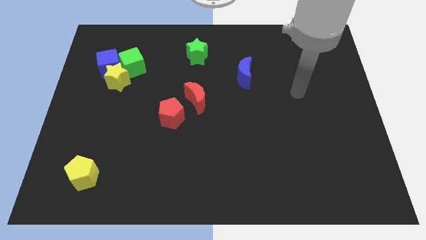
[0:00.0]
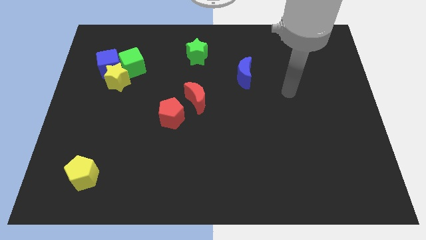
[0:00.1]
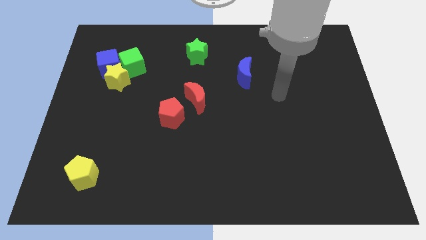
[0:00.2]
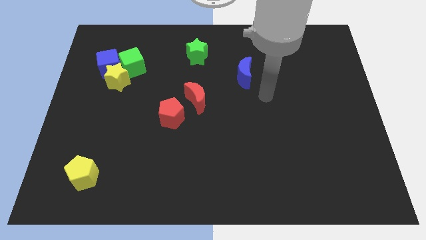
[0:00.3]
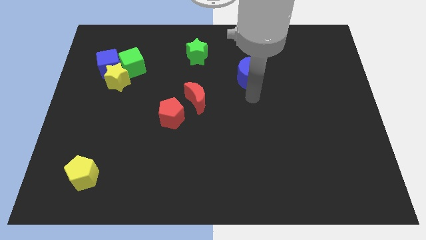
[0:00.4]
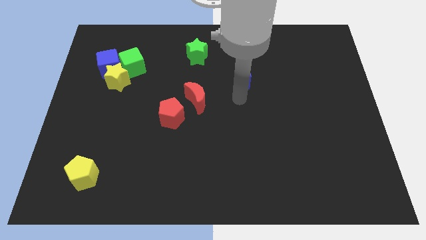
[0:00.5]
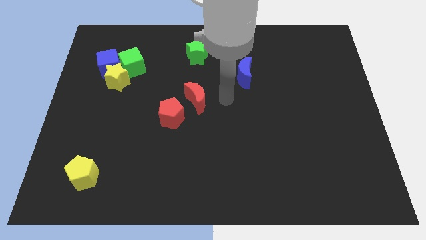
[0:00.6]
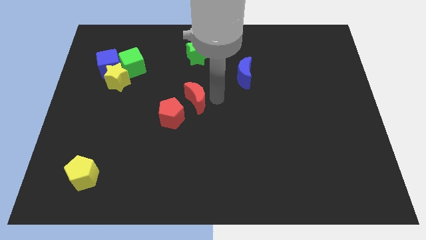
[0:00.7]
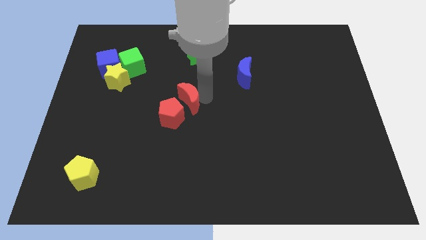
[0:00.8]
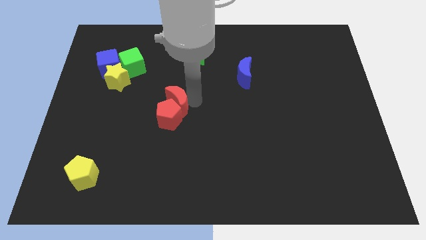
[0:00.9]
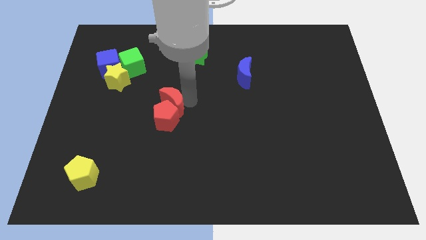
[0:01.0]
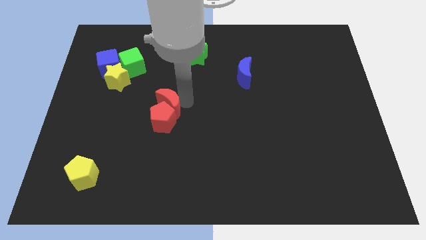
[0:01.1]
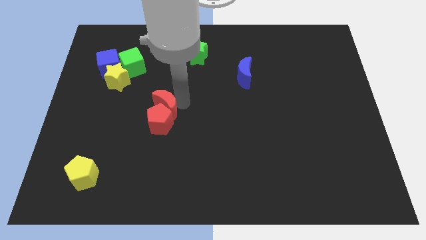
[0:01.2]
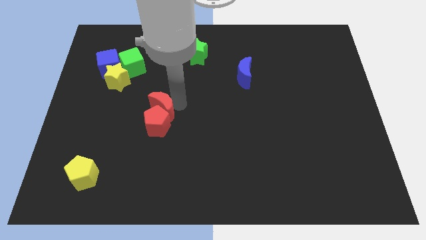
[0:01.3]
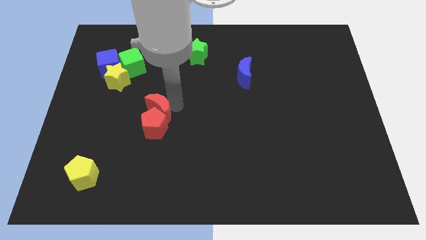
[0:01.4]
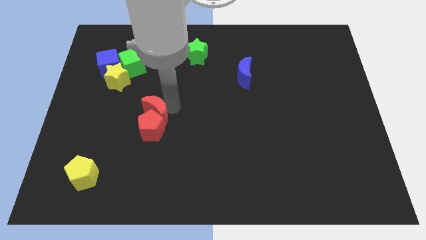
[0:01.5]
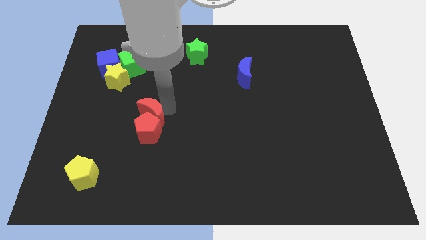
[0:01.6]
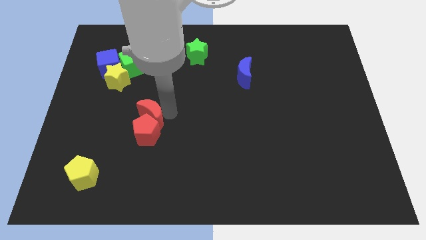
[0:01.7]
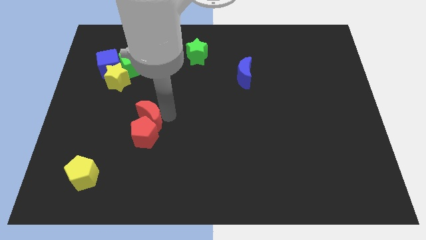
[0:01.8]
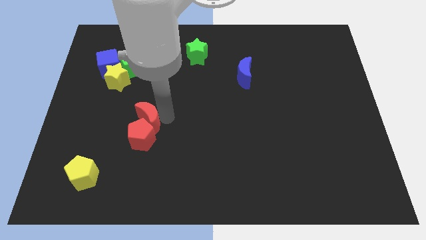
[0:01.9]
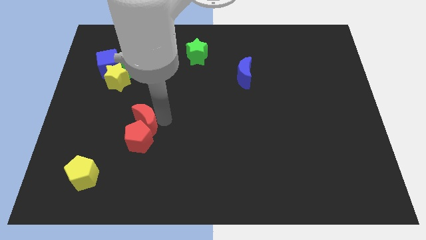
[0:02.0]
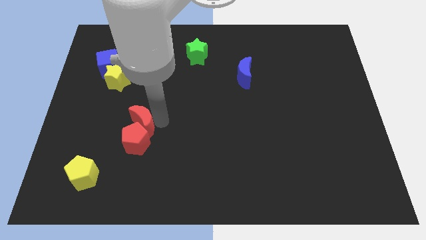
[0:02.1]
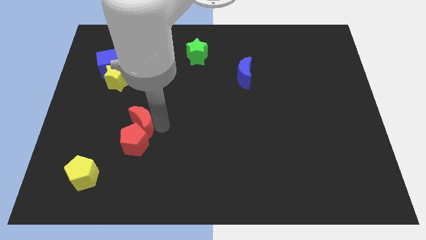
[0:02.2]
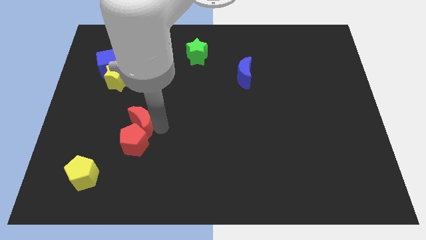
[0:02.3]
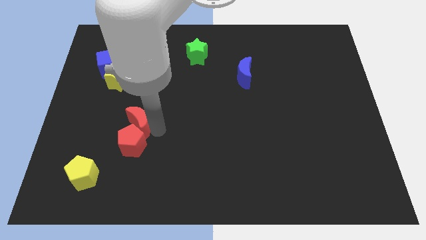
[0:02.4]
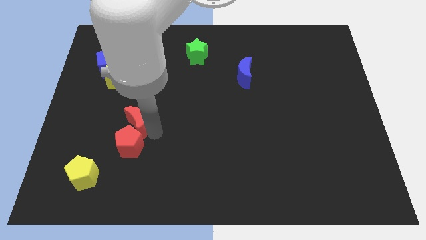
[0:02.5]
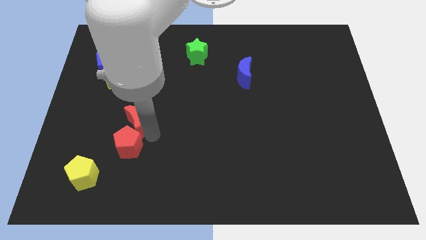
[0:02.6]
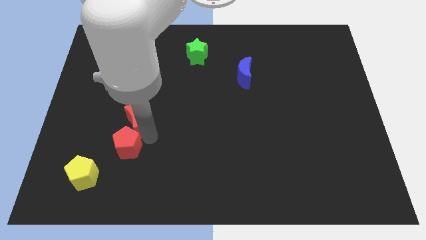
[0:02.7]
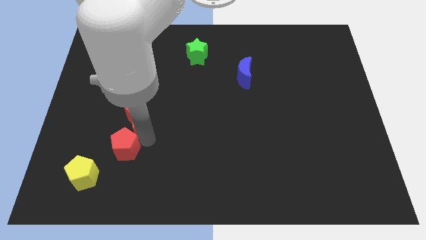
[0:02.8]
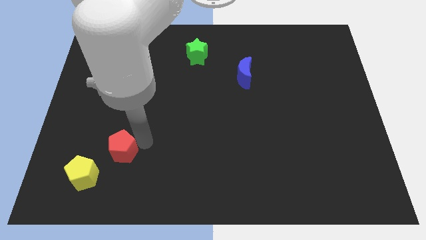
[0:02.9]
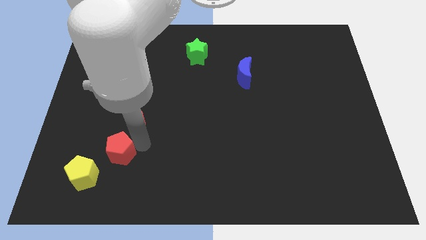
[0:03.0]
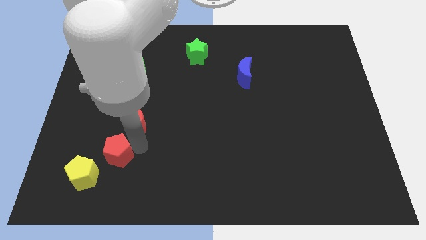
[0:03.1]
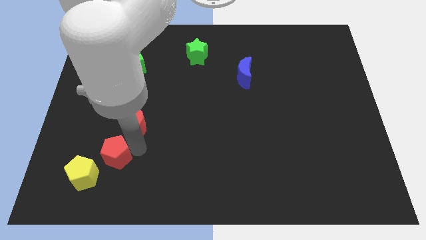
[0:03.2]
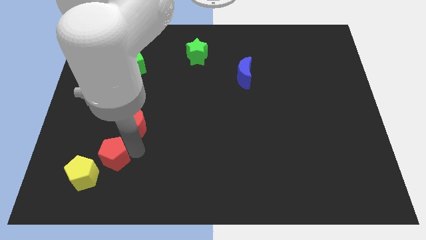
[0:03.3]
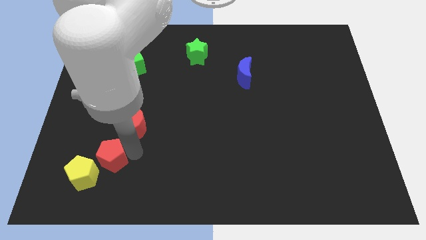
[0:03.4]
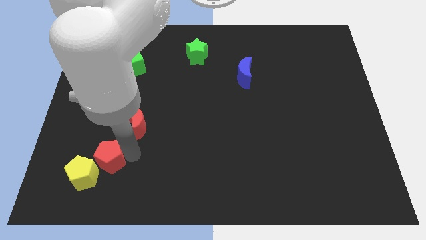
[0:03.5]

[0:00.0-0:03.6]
move the red pentagon to the yellow pentagon

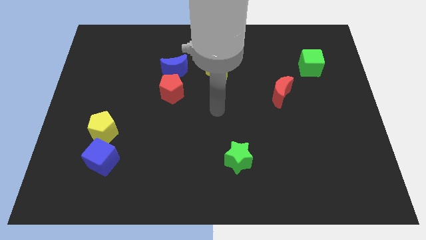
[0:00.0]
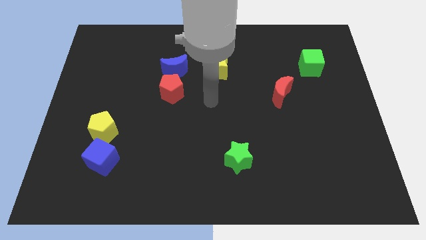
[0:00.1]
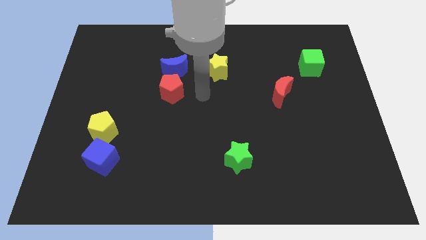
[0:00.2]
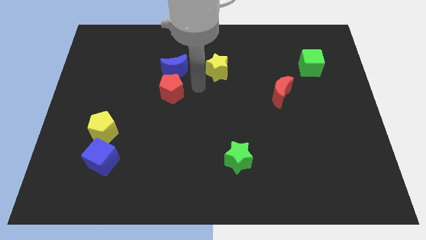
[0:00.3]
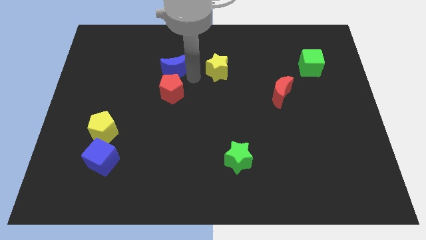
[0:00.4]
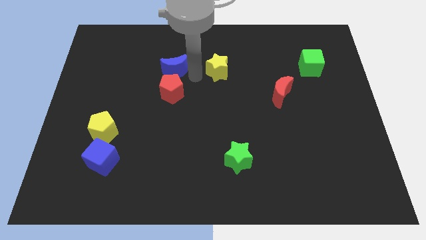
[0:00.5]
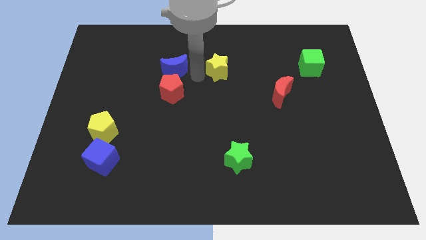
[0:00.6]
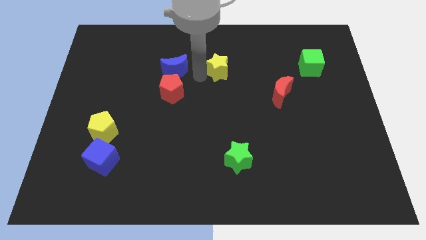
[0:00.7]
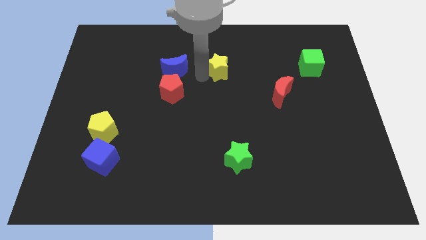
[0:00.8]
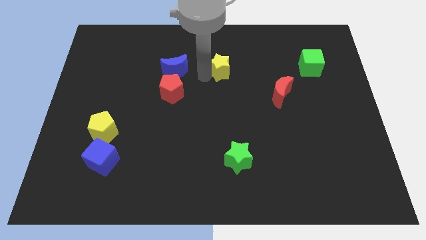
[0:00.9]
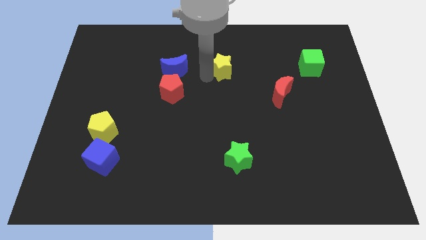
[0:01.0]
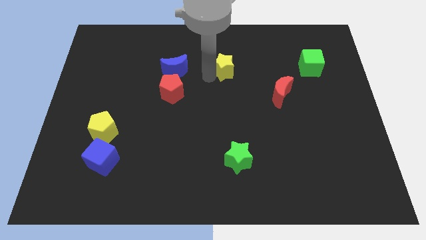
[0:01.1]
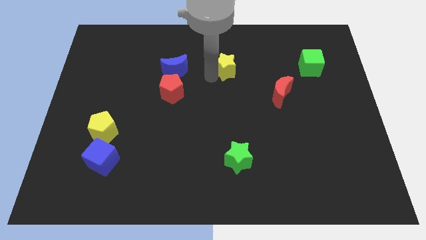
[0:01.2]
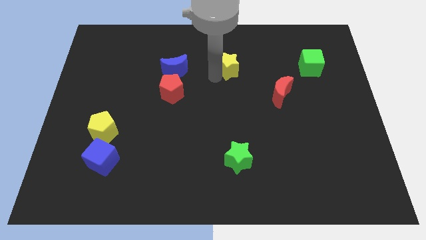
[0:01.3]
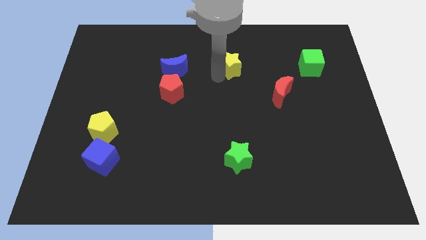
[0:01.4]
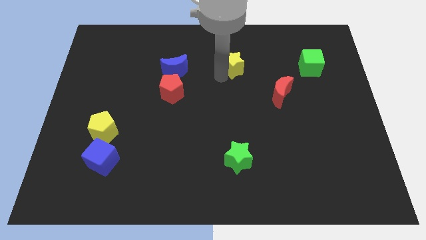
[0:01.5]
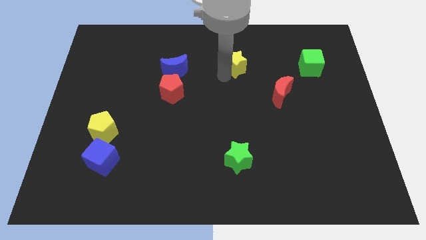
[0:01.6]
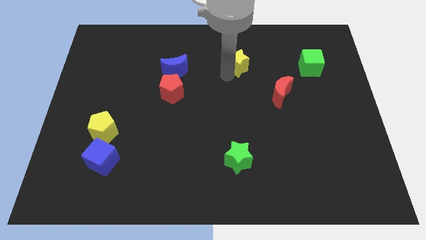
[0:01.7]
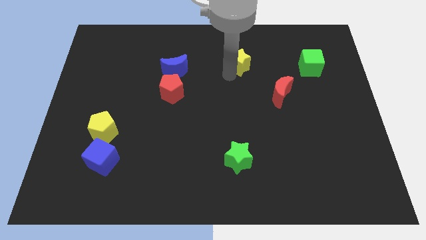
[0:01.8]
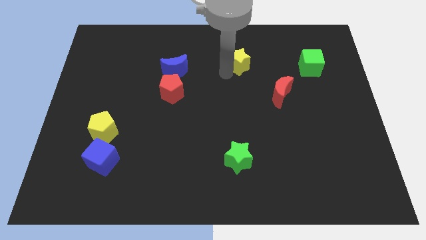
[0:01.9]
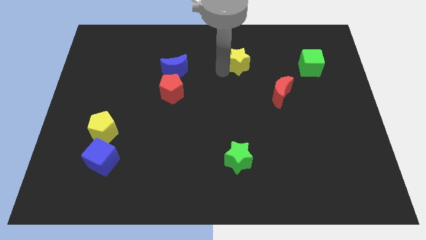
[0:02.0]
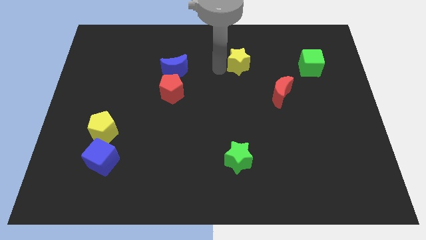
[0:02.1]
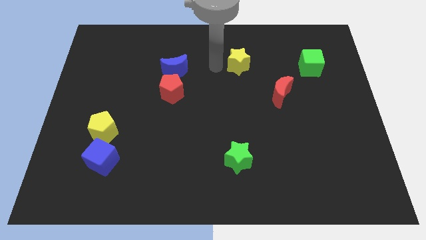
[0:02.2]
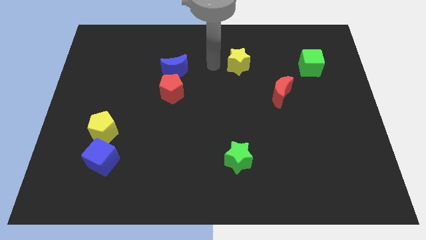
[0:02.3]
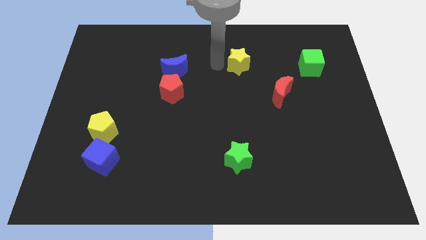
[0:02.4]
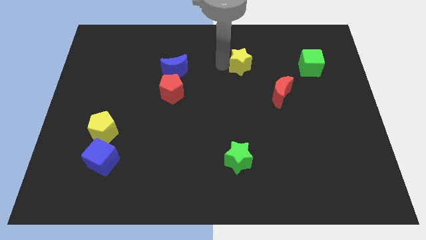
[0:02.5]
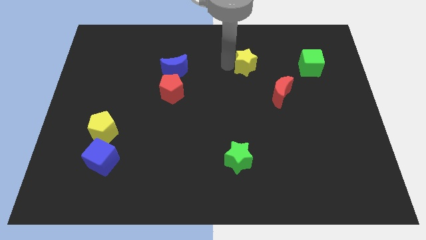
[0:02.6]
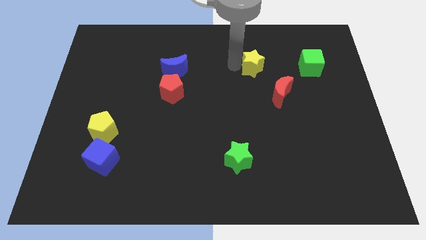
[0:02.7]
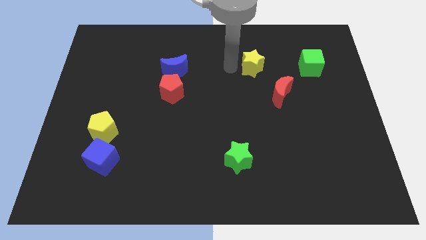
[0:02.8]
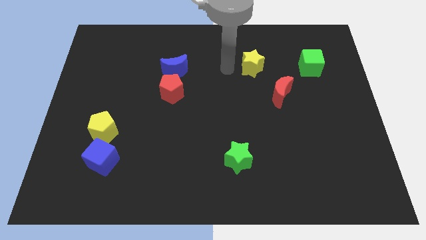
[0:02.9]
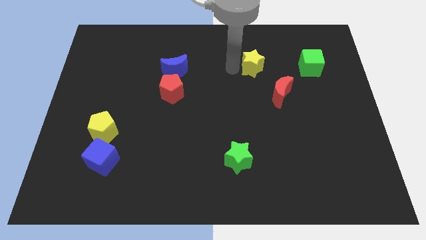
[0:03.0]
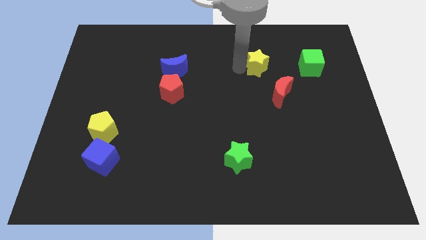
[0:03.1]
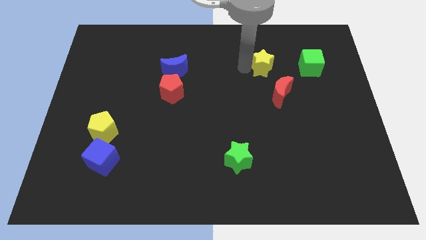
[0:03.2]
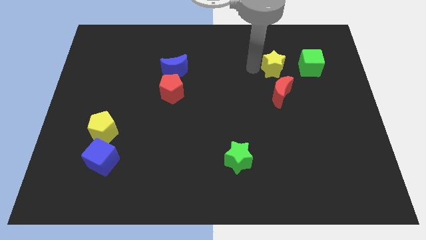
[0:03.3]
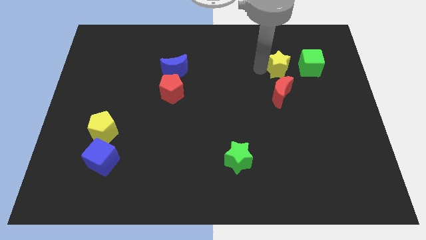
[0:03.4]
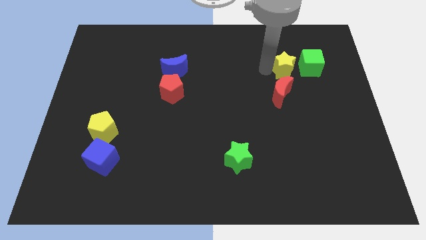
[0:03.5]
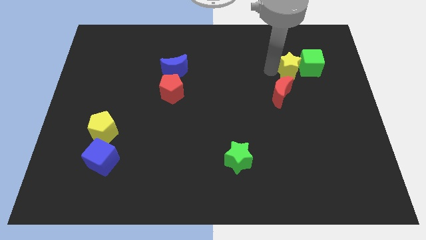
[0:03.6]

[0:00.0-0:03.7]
put the yellow star close to the green cube
